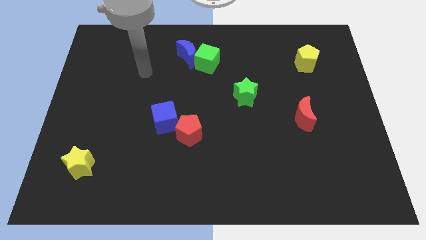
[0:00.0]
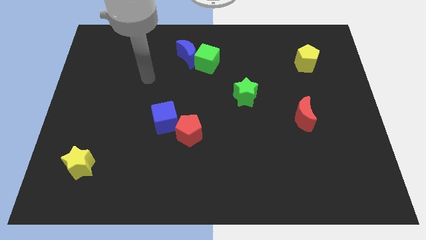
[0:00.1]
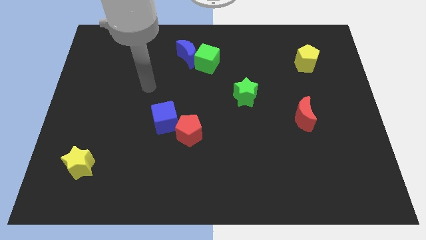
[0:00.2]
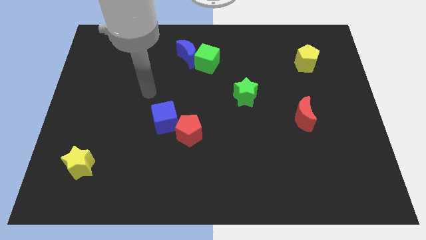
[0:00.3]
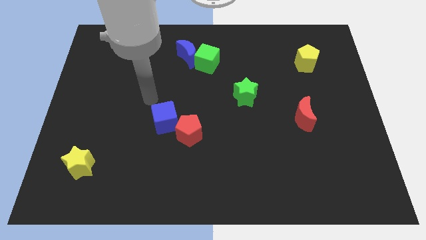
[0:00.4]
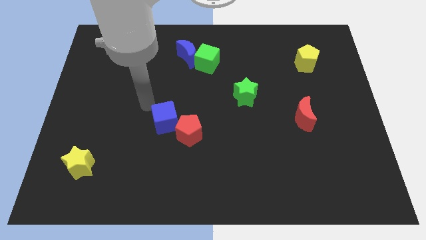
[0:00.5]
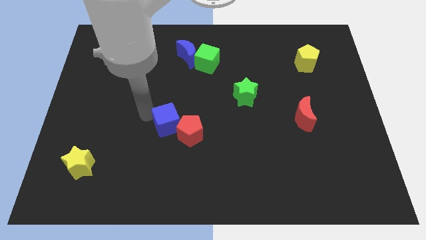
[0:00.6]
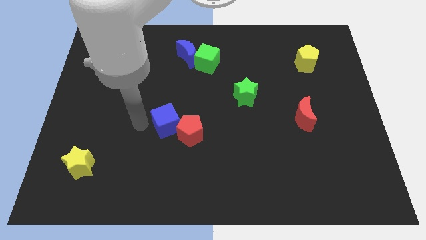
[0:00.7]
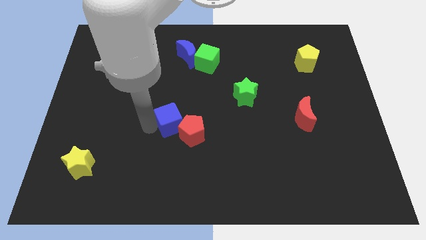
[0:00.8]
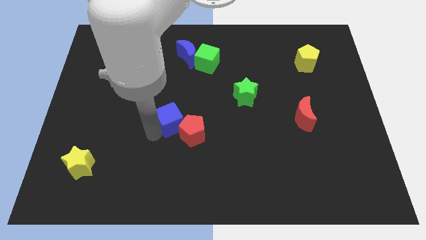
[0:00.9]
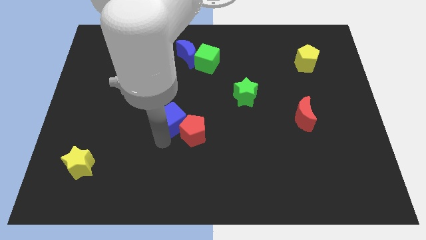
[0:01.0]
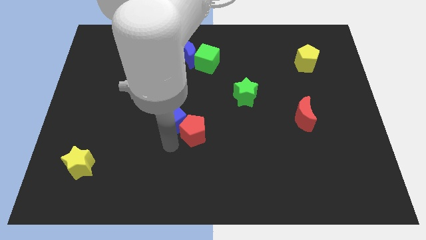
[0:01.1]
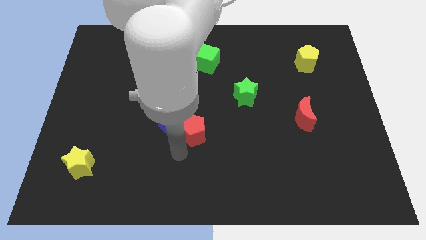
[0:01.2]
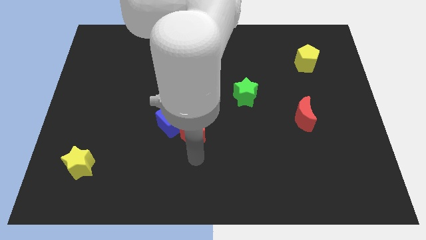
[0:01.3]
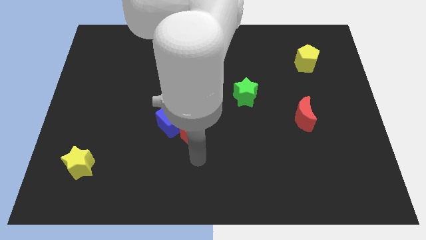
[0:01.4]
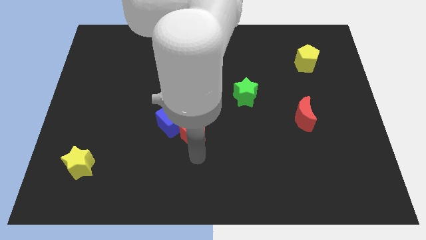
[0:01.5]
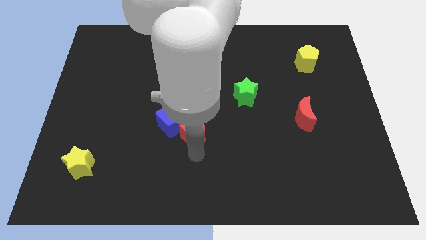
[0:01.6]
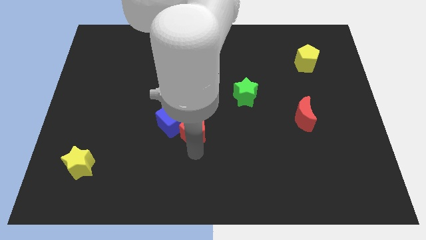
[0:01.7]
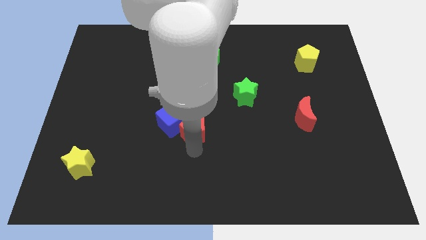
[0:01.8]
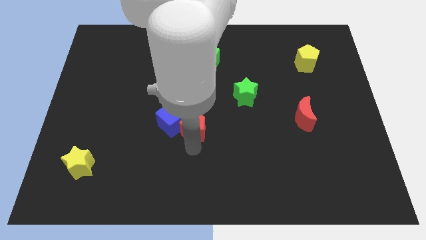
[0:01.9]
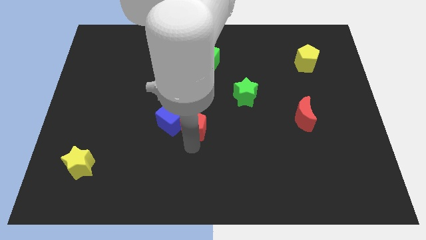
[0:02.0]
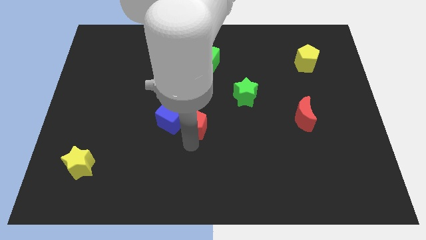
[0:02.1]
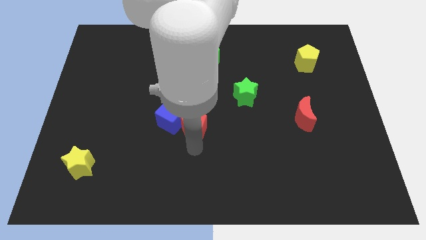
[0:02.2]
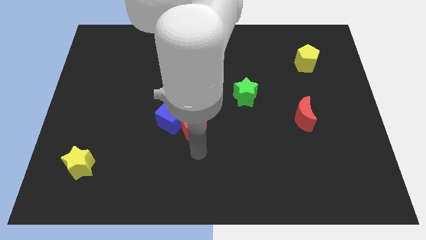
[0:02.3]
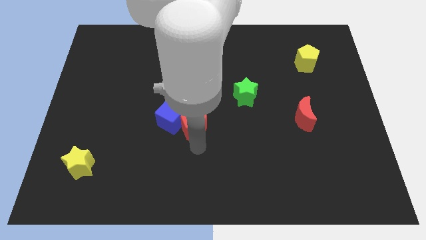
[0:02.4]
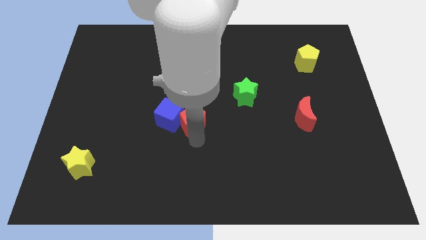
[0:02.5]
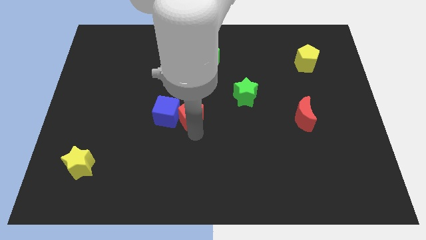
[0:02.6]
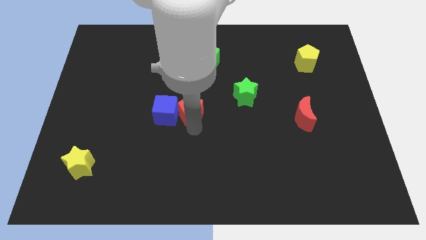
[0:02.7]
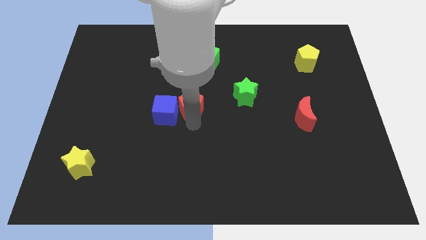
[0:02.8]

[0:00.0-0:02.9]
move the red pentagon somewhat up

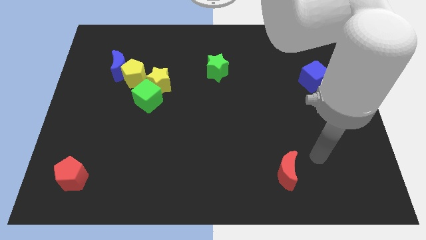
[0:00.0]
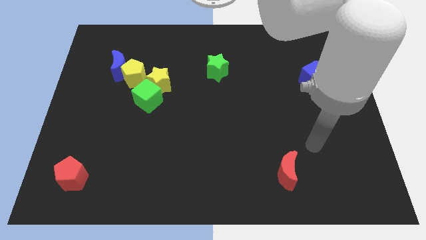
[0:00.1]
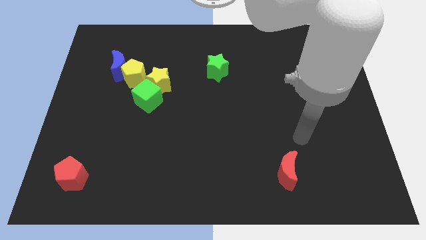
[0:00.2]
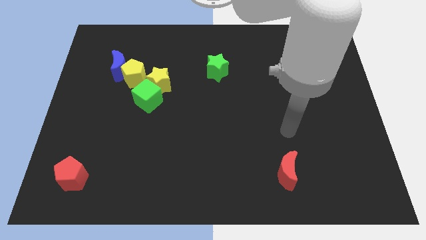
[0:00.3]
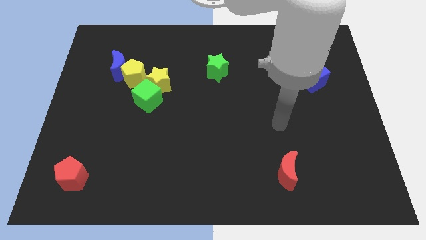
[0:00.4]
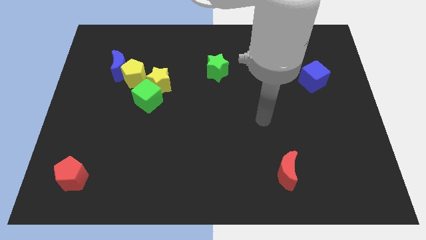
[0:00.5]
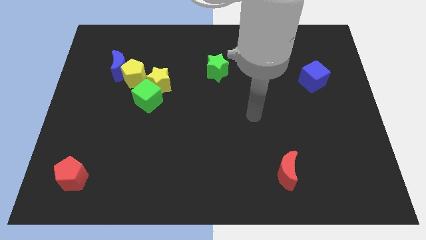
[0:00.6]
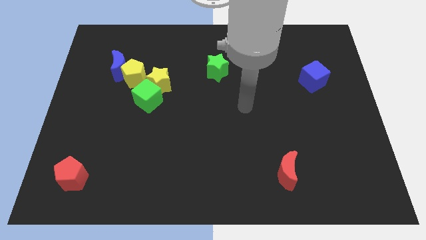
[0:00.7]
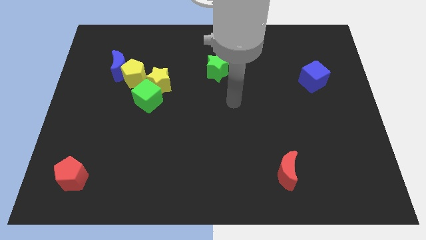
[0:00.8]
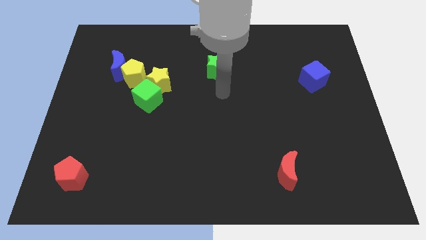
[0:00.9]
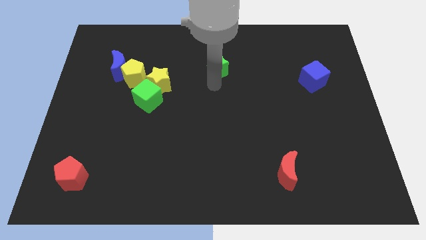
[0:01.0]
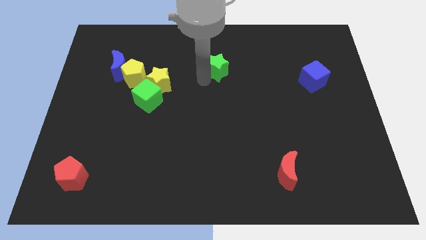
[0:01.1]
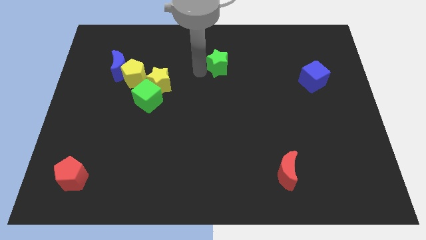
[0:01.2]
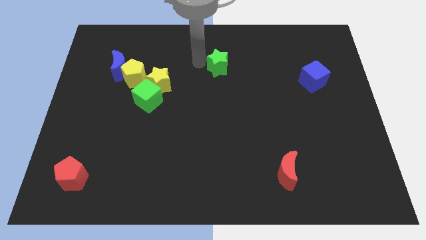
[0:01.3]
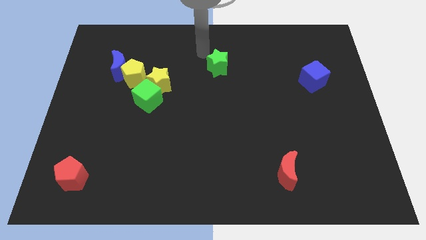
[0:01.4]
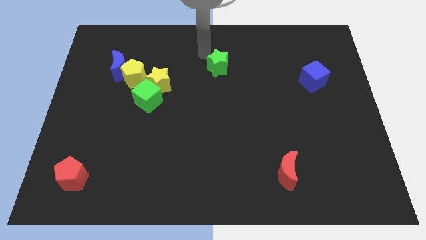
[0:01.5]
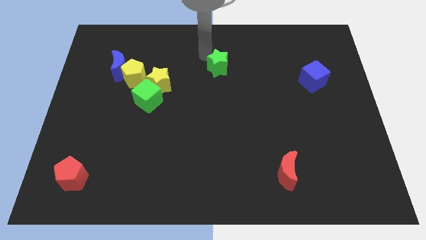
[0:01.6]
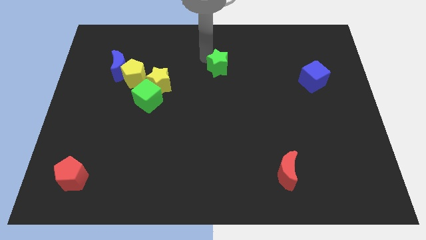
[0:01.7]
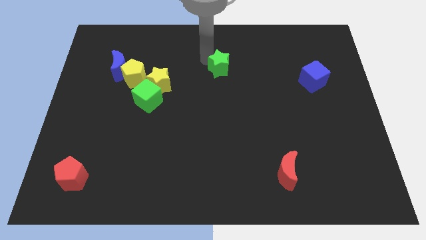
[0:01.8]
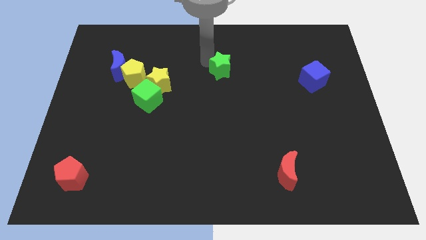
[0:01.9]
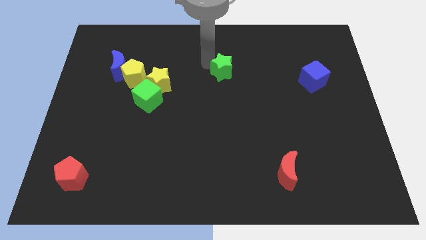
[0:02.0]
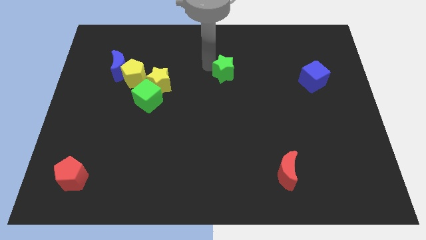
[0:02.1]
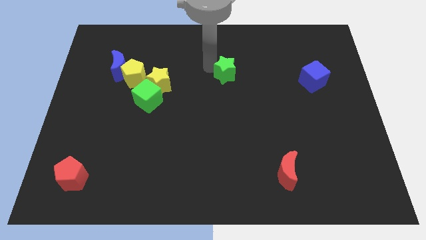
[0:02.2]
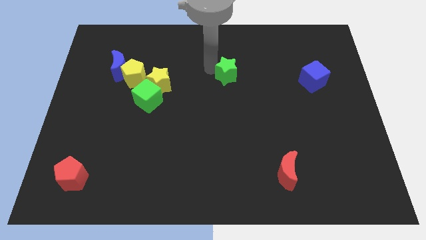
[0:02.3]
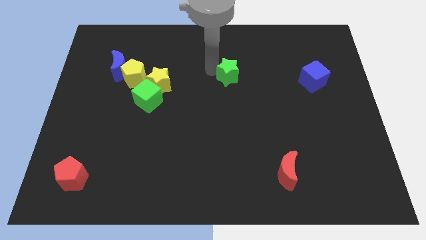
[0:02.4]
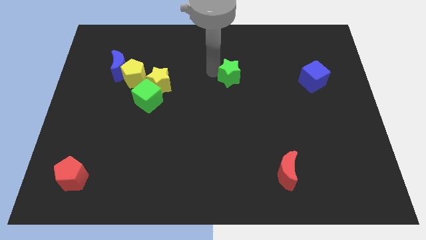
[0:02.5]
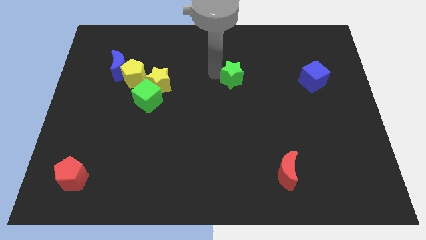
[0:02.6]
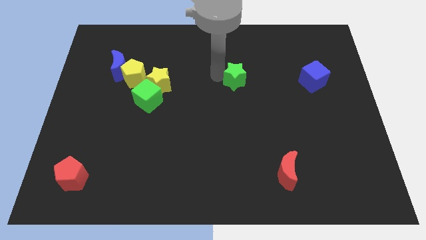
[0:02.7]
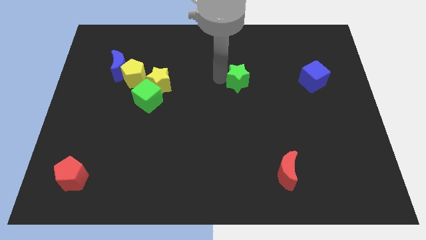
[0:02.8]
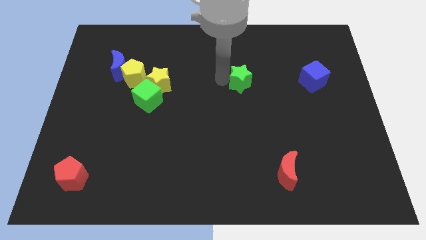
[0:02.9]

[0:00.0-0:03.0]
move the green star diagonally down and right somewhat

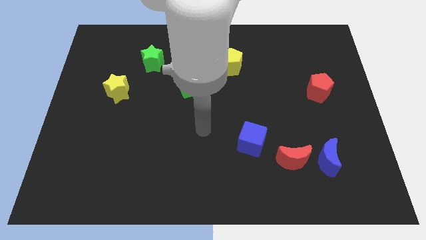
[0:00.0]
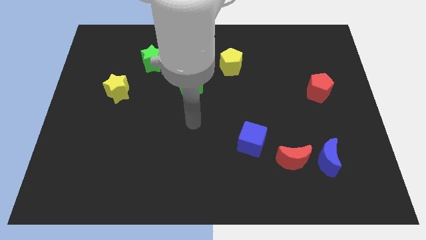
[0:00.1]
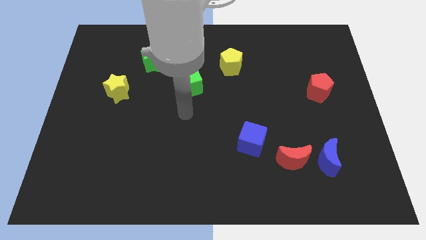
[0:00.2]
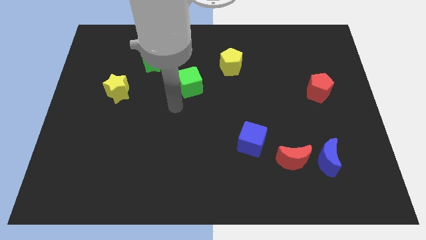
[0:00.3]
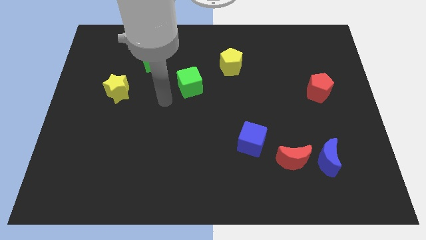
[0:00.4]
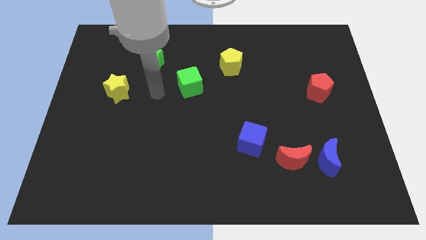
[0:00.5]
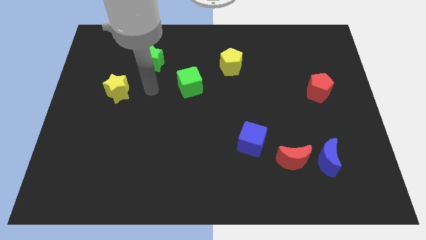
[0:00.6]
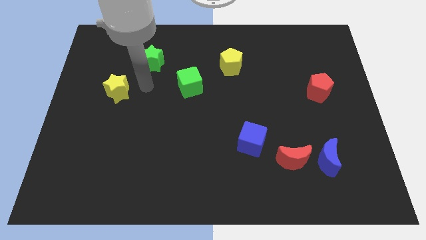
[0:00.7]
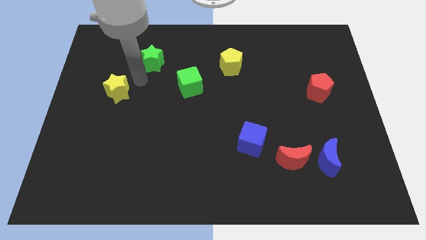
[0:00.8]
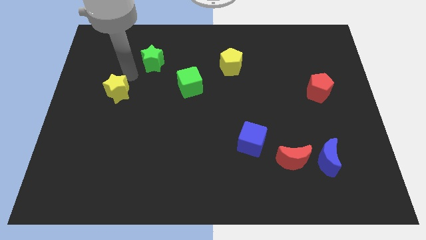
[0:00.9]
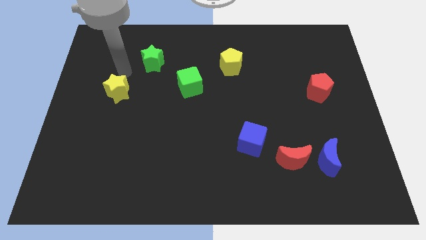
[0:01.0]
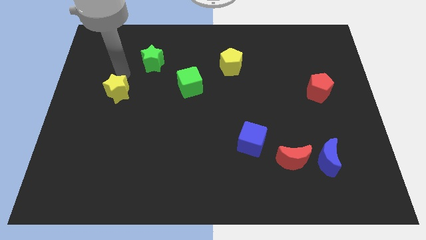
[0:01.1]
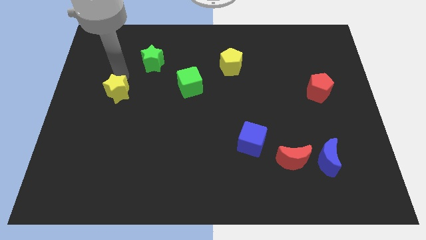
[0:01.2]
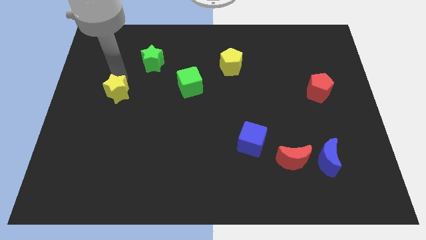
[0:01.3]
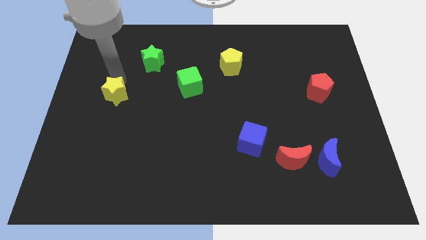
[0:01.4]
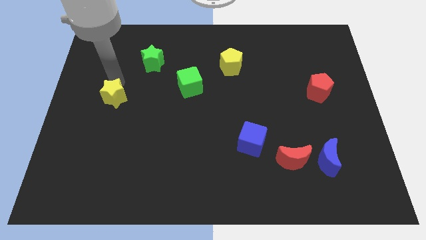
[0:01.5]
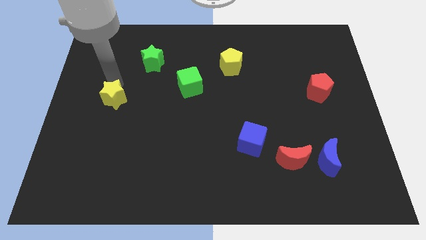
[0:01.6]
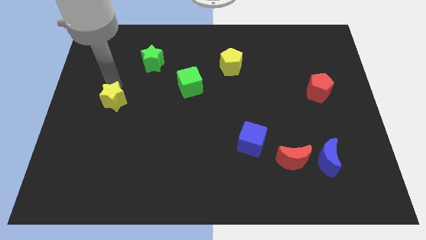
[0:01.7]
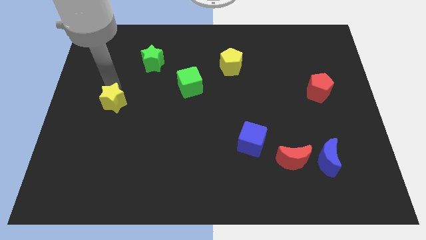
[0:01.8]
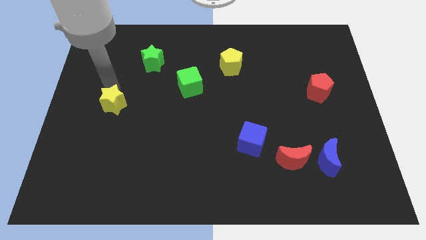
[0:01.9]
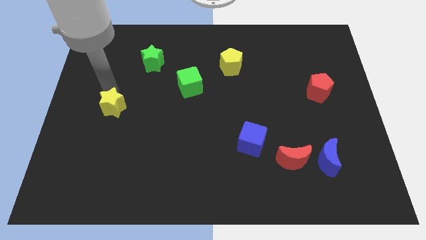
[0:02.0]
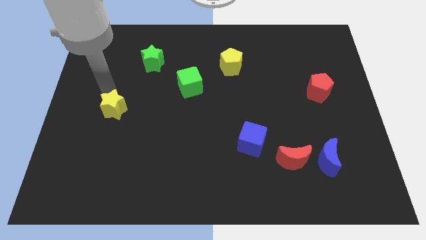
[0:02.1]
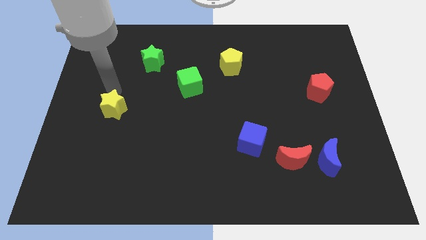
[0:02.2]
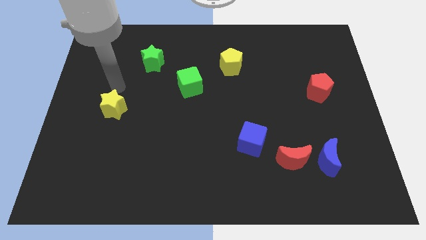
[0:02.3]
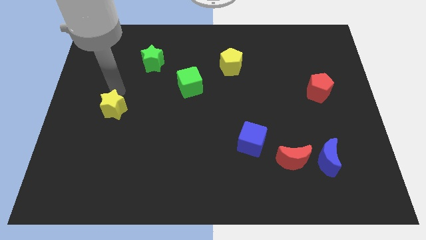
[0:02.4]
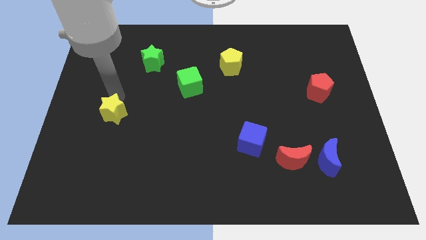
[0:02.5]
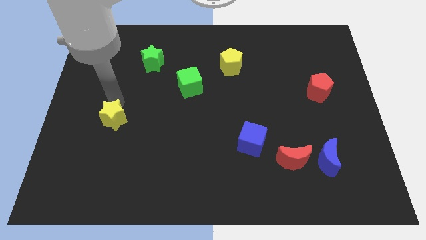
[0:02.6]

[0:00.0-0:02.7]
slightly move the yellow star down
